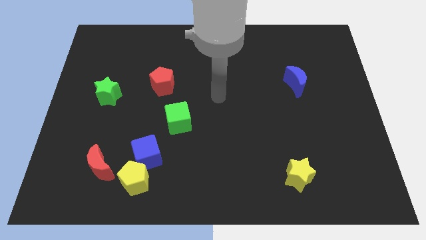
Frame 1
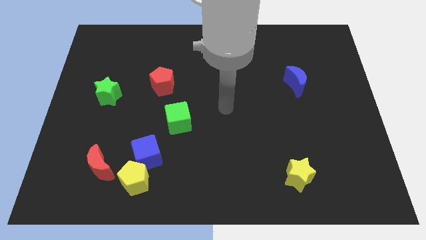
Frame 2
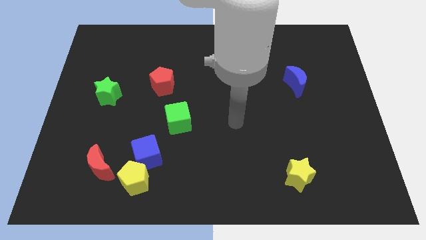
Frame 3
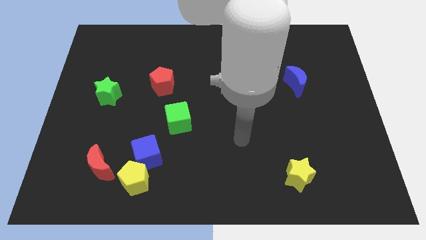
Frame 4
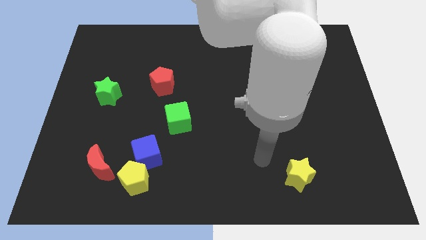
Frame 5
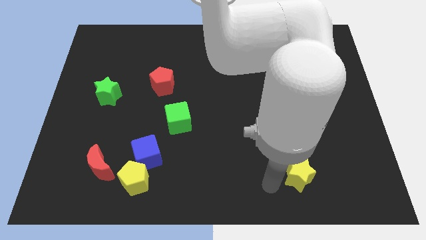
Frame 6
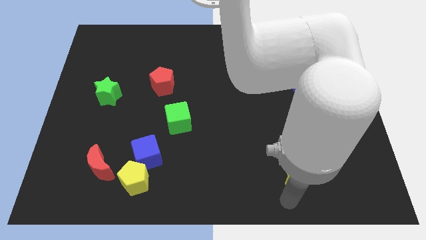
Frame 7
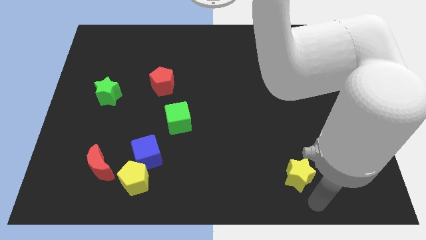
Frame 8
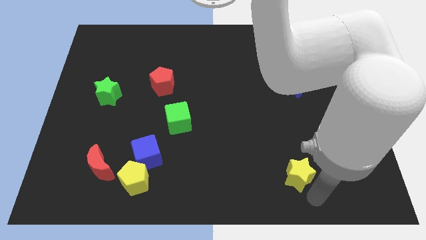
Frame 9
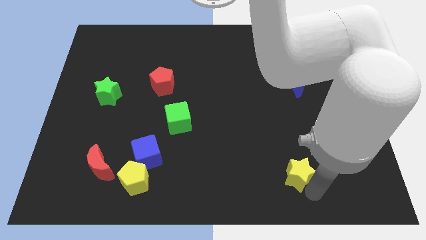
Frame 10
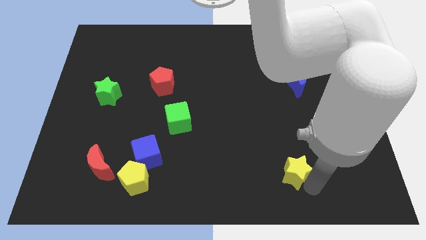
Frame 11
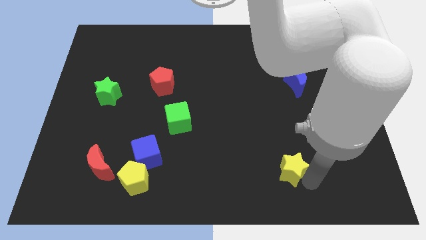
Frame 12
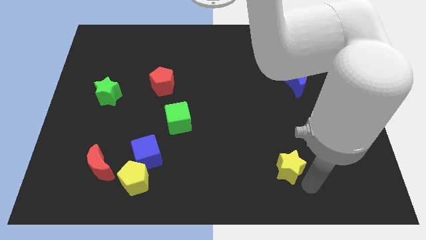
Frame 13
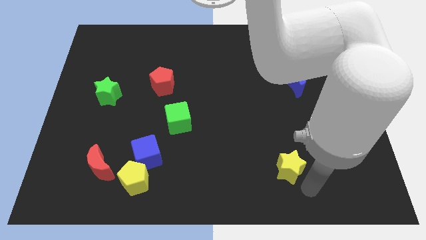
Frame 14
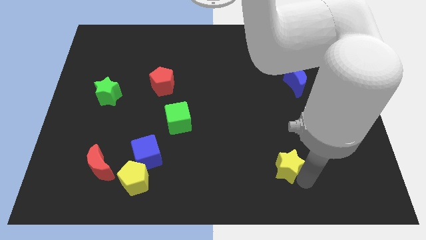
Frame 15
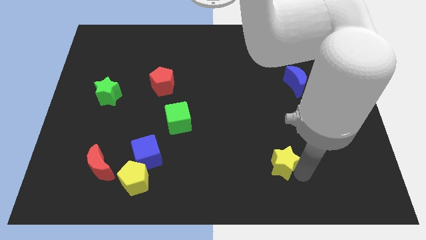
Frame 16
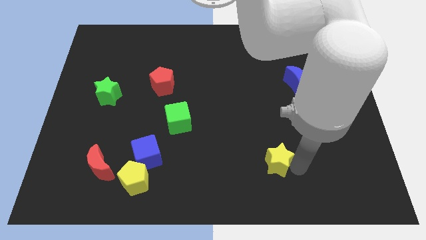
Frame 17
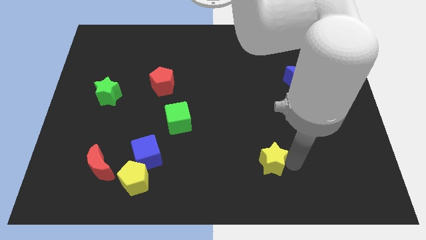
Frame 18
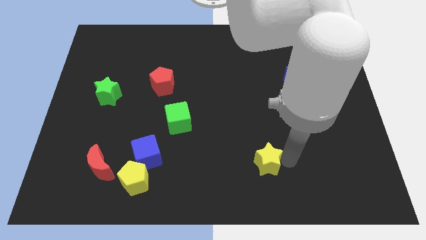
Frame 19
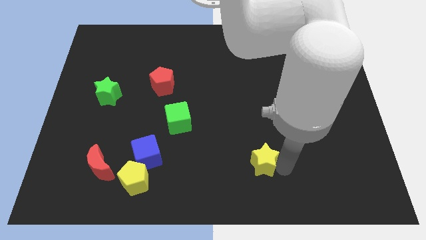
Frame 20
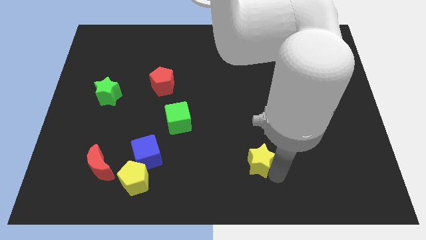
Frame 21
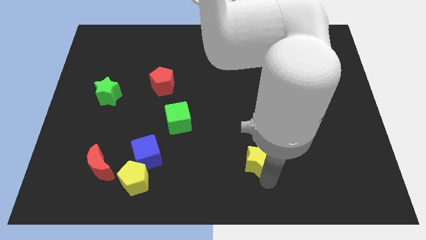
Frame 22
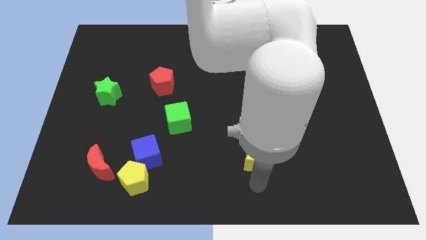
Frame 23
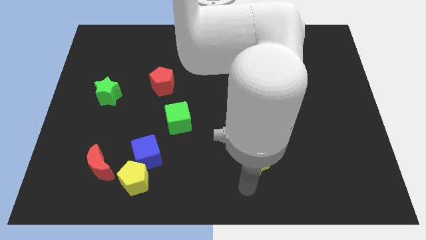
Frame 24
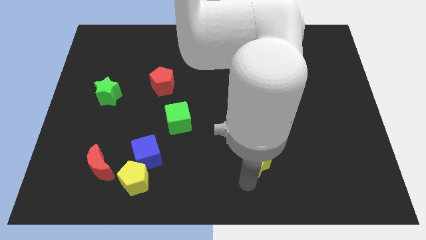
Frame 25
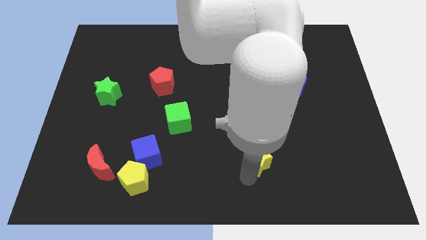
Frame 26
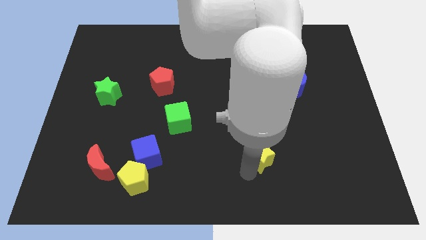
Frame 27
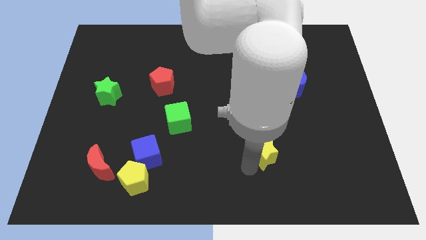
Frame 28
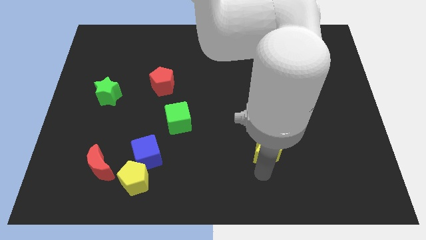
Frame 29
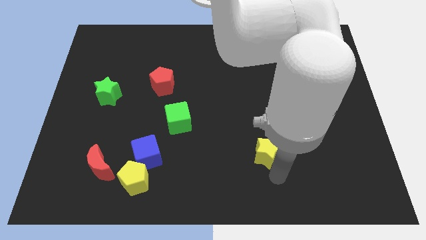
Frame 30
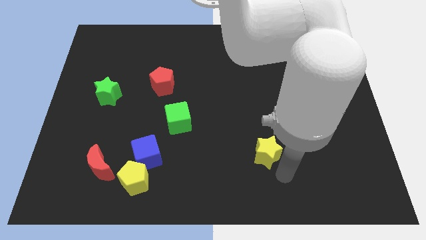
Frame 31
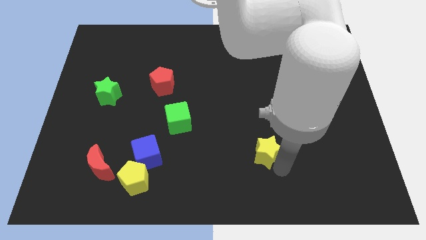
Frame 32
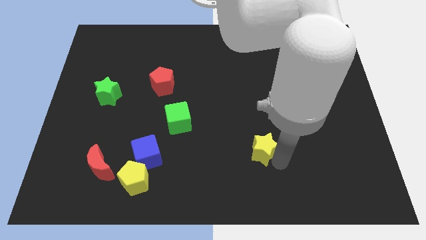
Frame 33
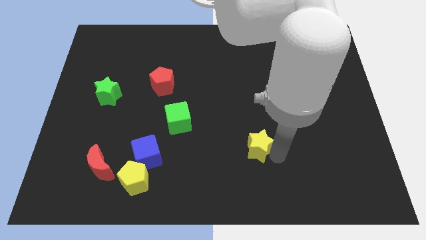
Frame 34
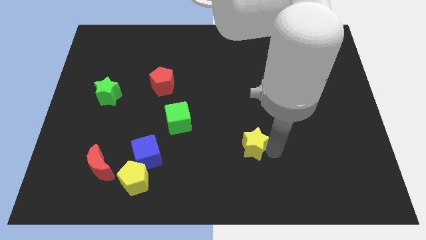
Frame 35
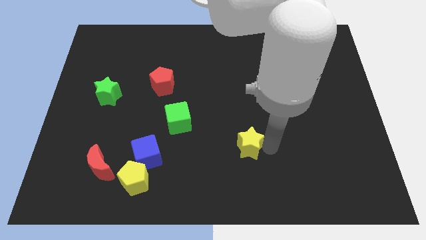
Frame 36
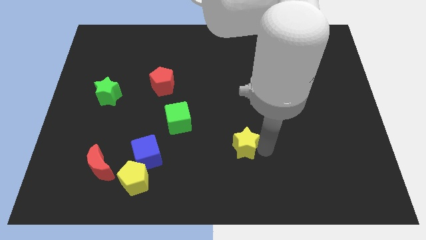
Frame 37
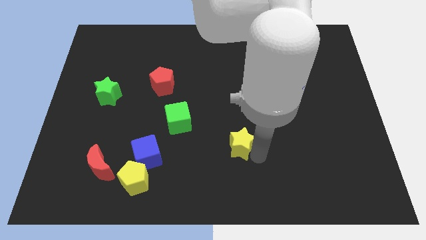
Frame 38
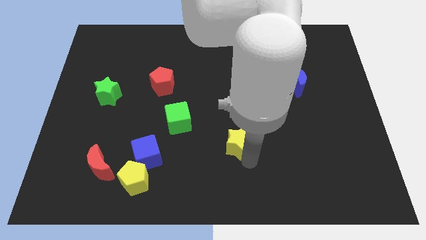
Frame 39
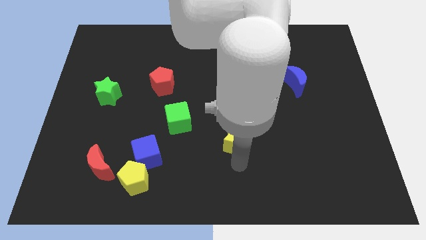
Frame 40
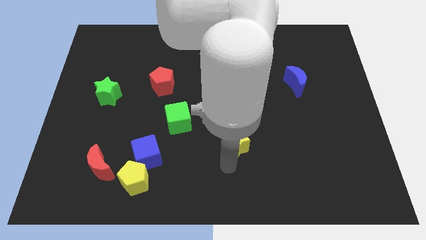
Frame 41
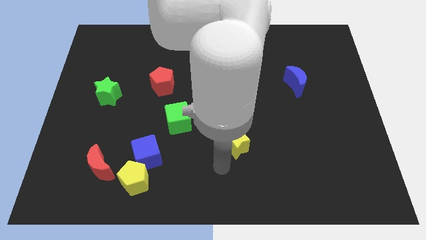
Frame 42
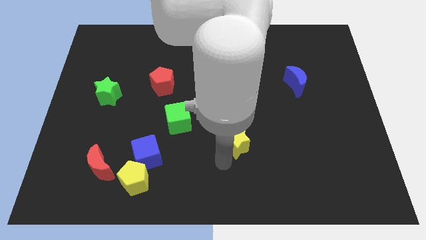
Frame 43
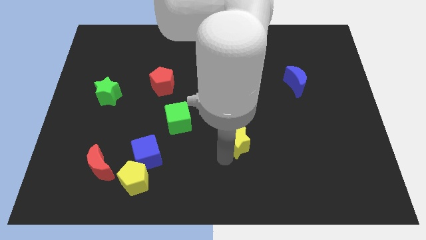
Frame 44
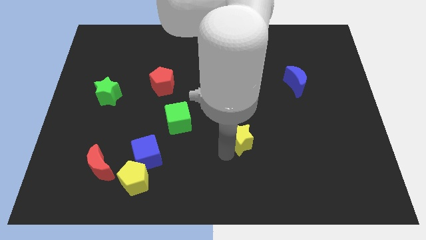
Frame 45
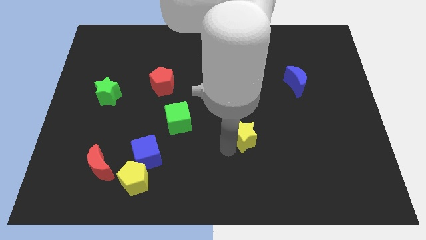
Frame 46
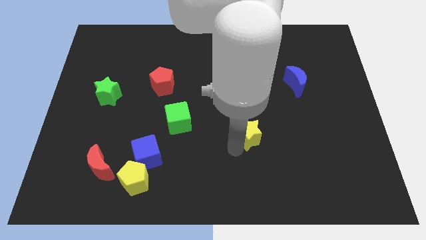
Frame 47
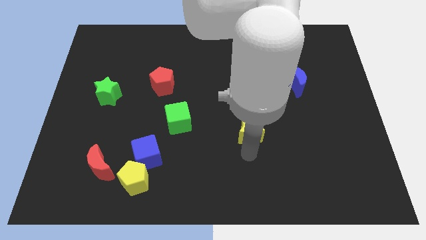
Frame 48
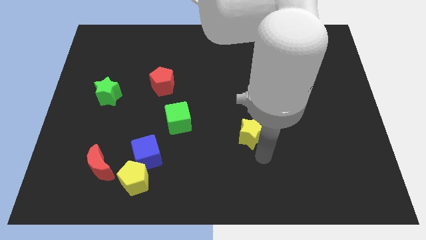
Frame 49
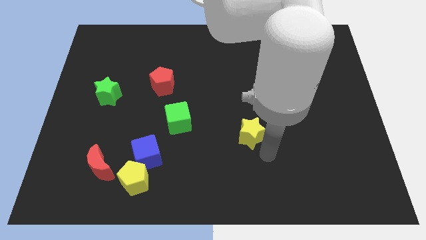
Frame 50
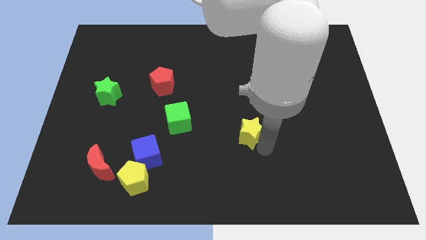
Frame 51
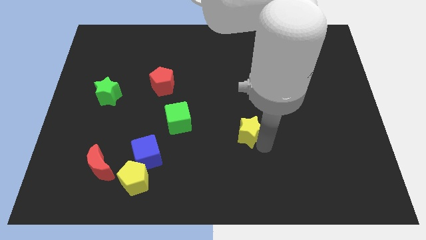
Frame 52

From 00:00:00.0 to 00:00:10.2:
put the yellow star to the center of the board

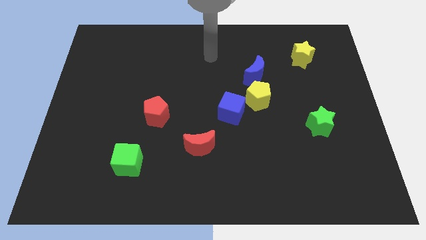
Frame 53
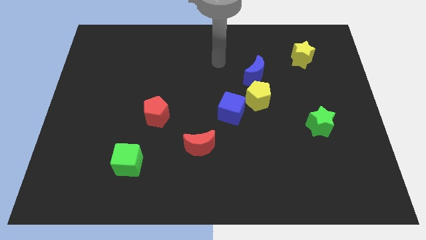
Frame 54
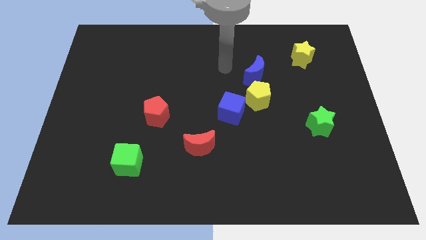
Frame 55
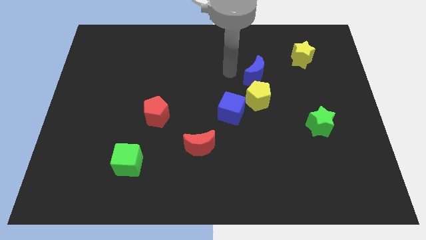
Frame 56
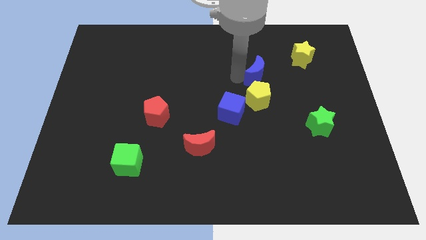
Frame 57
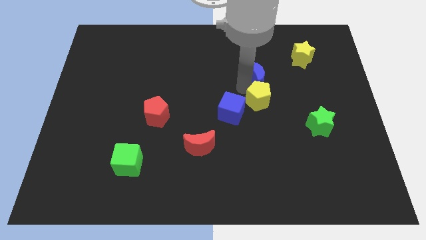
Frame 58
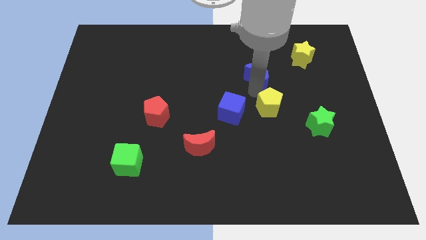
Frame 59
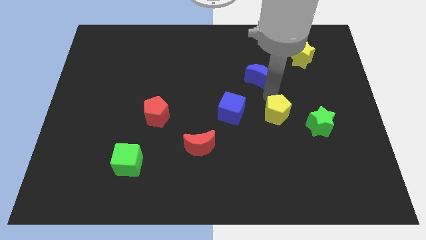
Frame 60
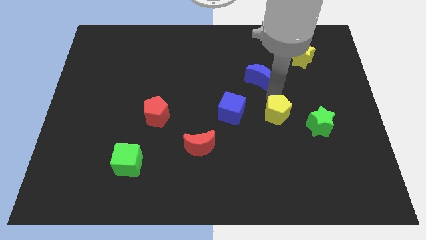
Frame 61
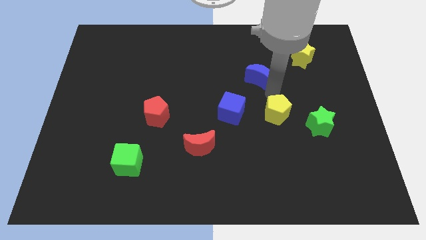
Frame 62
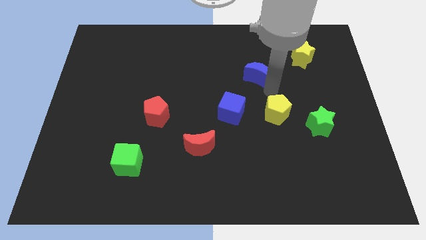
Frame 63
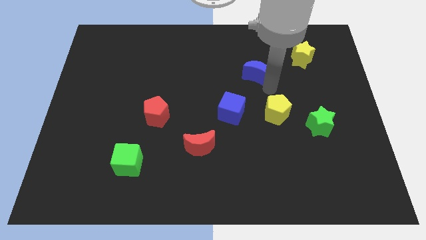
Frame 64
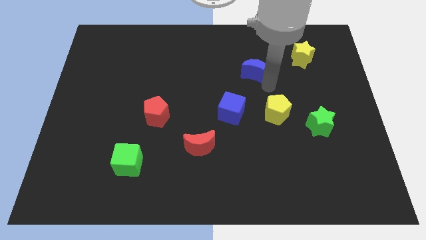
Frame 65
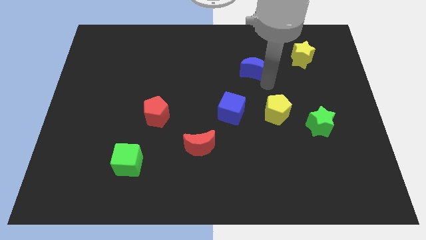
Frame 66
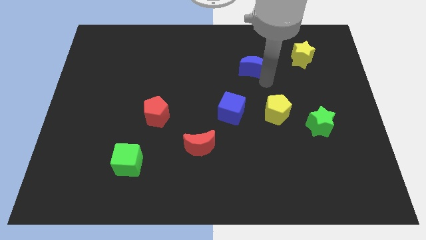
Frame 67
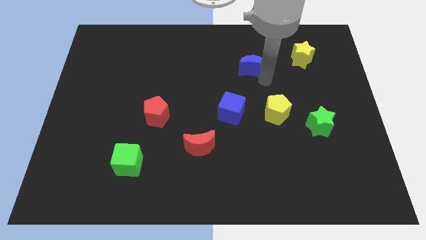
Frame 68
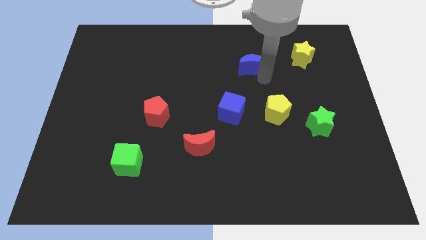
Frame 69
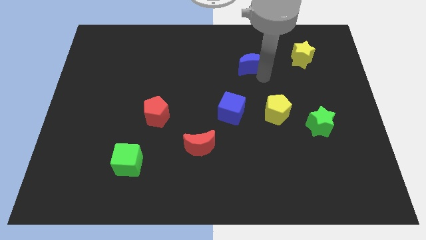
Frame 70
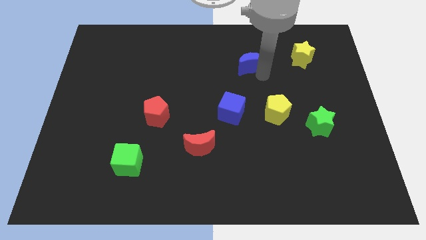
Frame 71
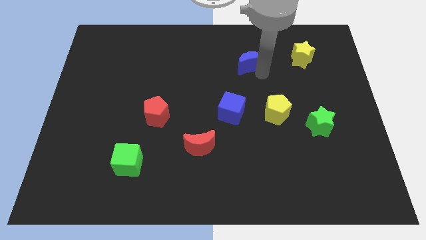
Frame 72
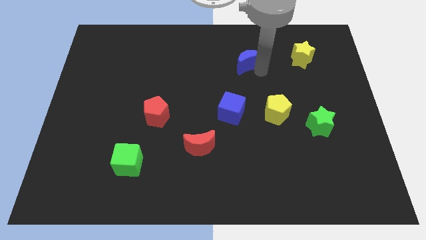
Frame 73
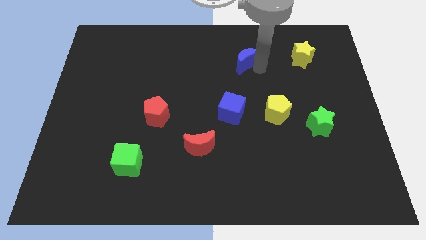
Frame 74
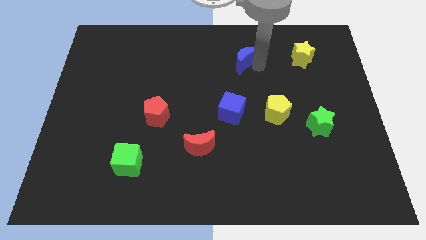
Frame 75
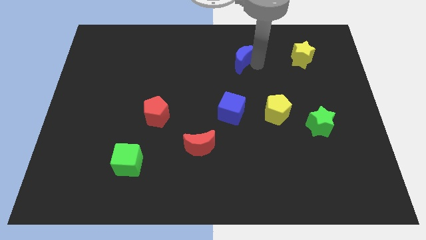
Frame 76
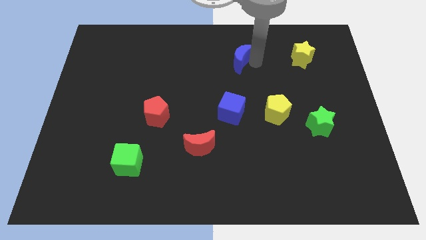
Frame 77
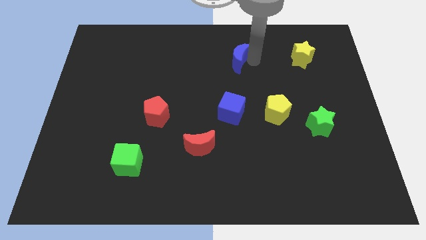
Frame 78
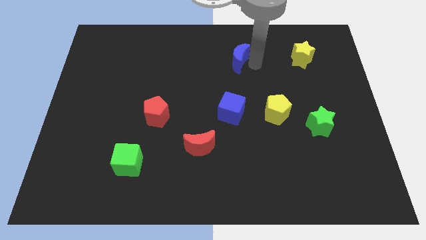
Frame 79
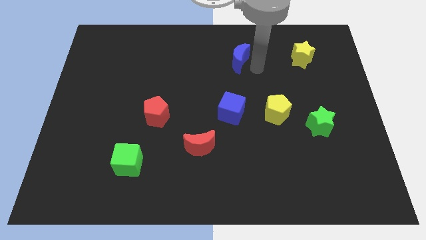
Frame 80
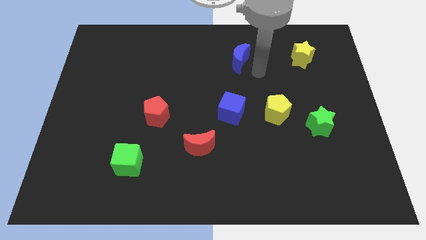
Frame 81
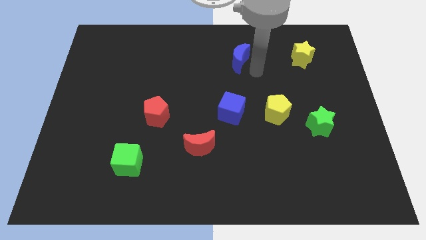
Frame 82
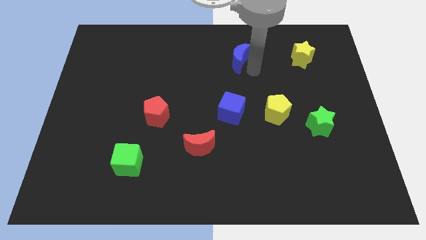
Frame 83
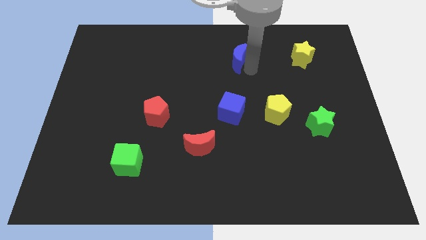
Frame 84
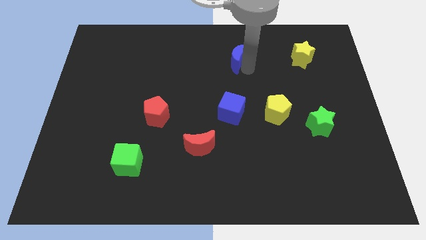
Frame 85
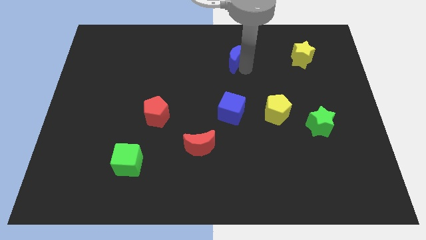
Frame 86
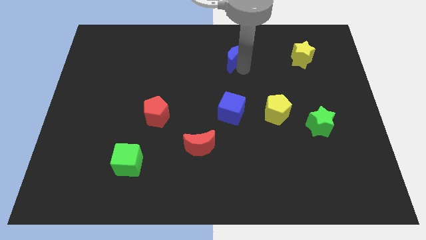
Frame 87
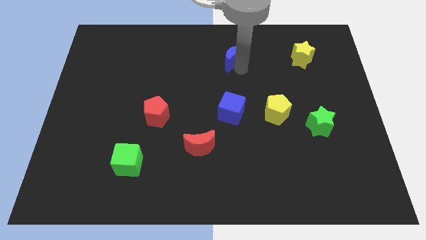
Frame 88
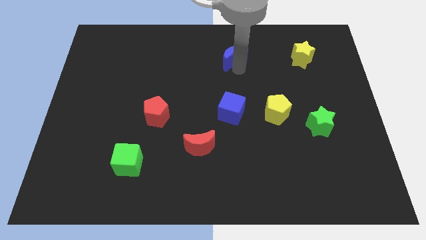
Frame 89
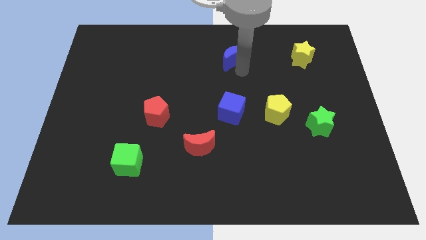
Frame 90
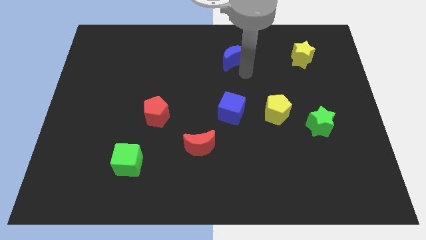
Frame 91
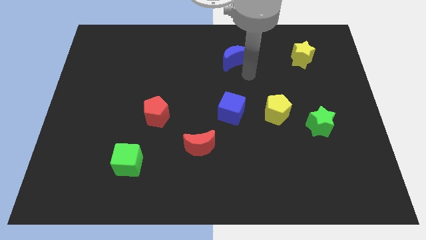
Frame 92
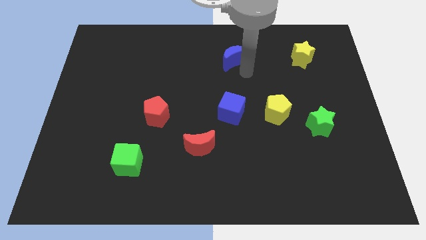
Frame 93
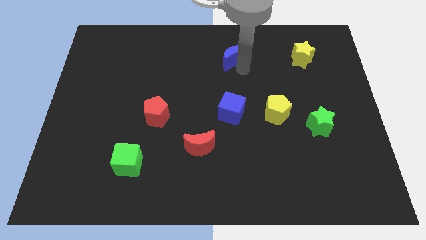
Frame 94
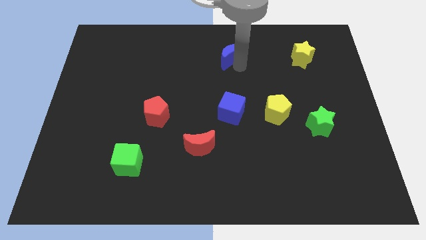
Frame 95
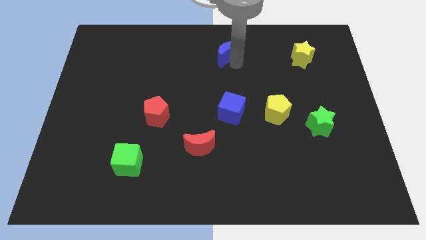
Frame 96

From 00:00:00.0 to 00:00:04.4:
move the blue moon to the top side
